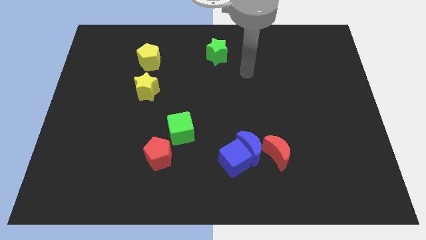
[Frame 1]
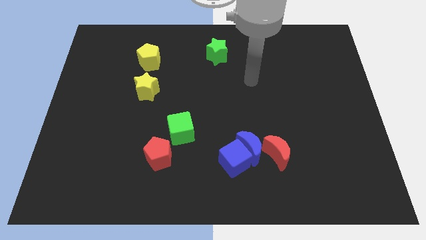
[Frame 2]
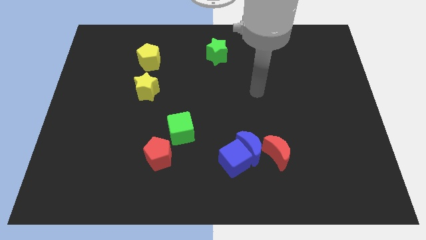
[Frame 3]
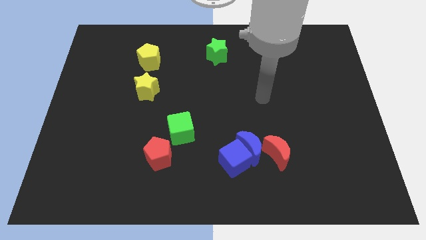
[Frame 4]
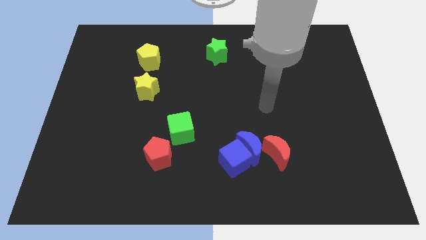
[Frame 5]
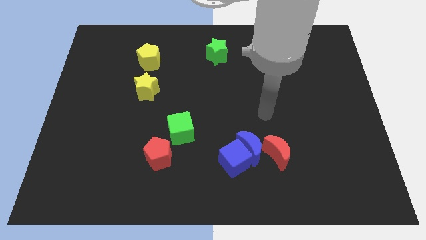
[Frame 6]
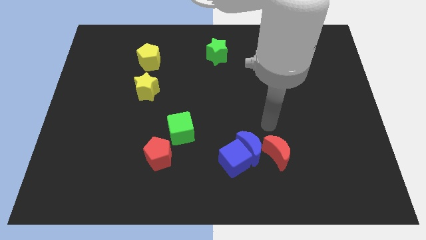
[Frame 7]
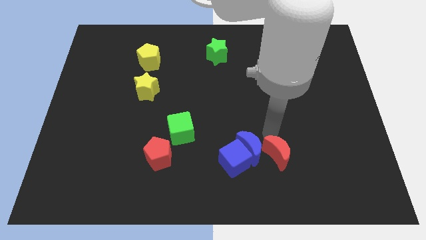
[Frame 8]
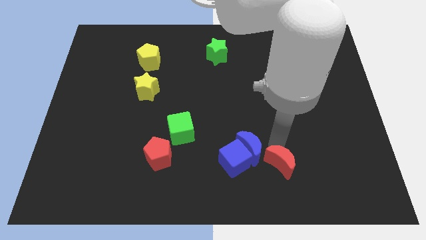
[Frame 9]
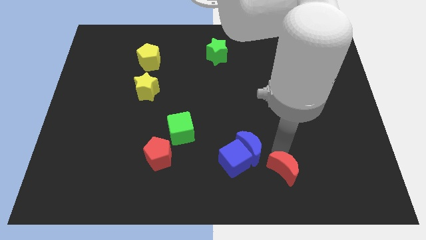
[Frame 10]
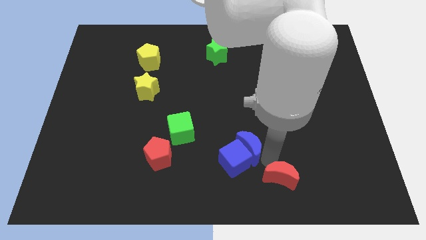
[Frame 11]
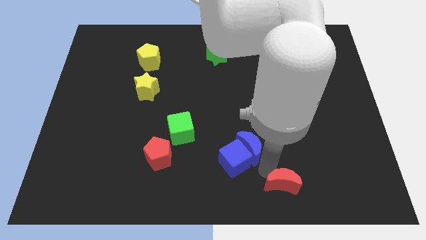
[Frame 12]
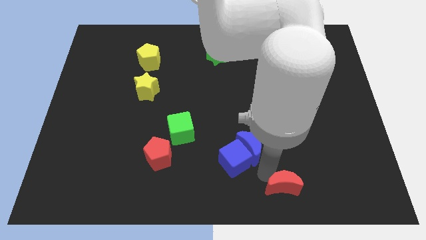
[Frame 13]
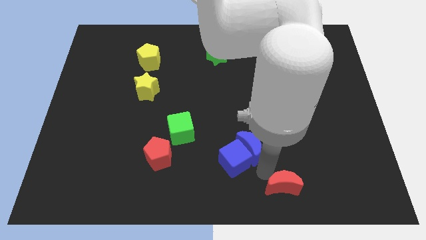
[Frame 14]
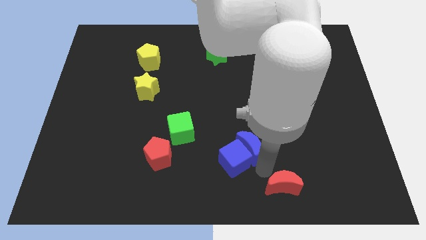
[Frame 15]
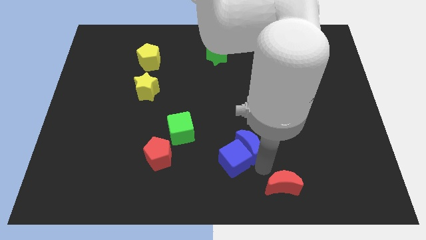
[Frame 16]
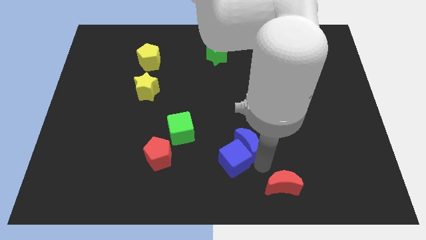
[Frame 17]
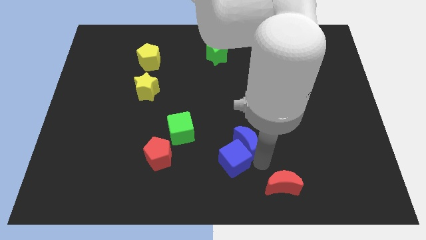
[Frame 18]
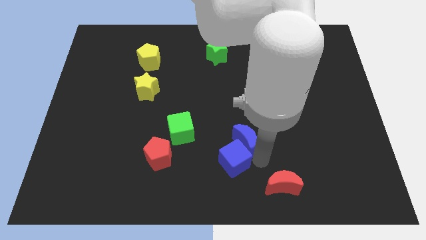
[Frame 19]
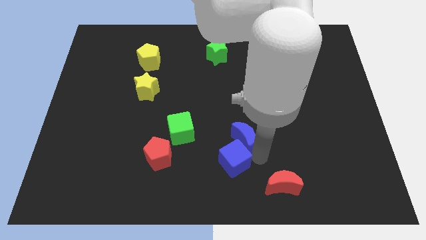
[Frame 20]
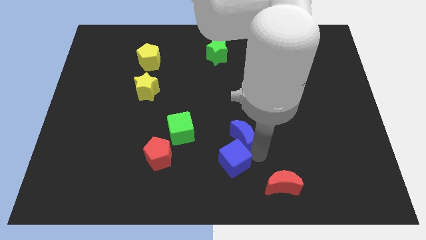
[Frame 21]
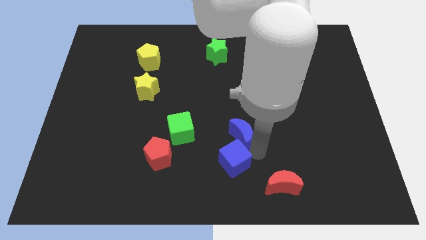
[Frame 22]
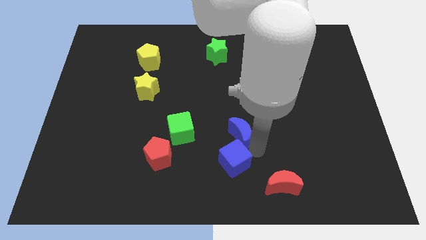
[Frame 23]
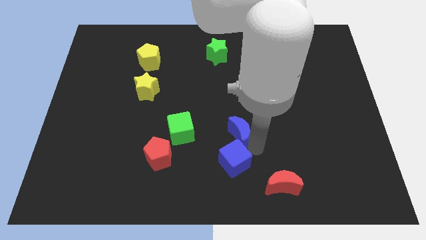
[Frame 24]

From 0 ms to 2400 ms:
separate the blue moon from the blue cube and red moon

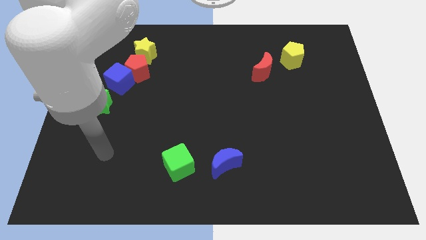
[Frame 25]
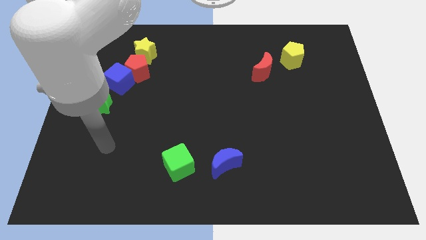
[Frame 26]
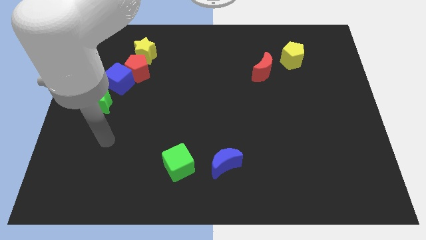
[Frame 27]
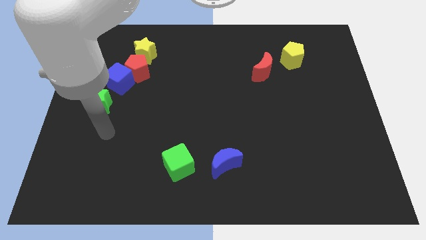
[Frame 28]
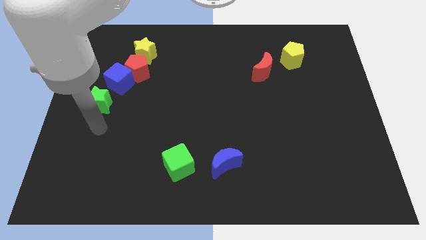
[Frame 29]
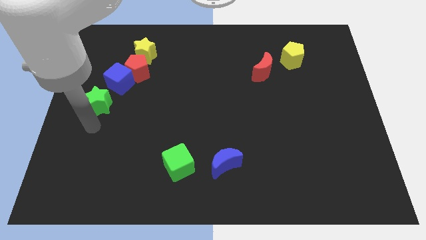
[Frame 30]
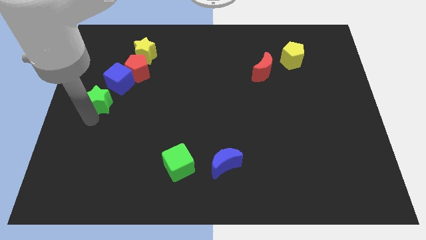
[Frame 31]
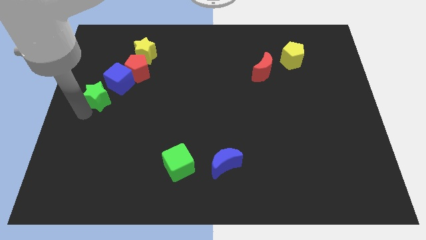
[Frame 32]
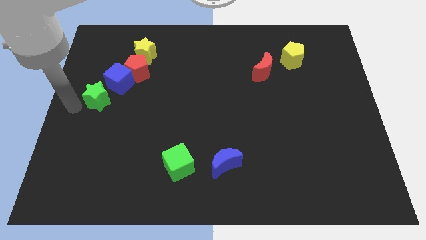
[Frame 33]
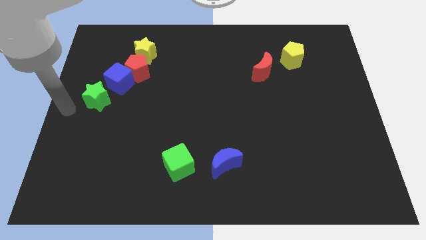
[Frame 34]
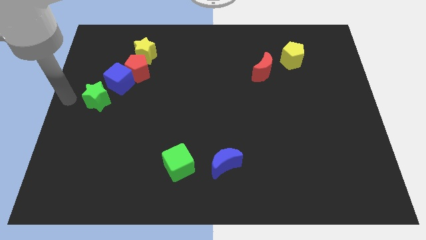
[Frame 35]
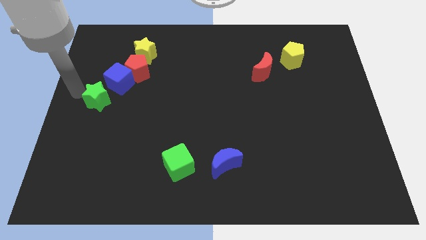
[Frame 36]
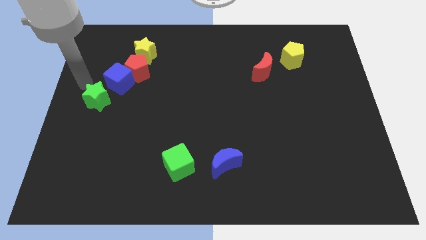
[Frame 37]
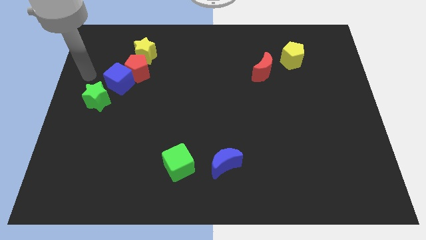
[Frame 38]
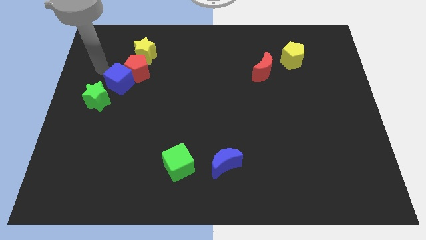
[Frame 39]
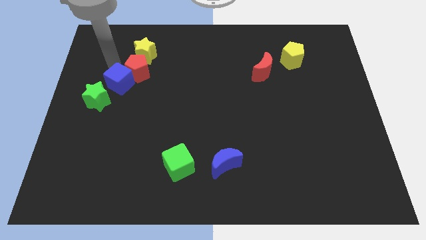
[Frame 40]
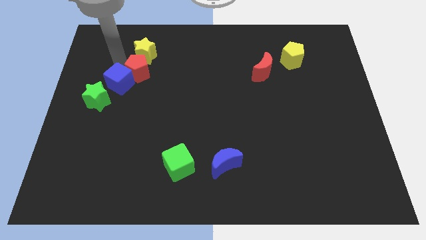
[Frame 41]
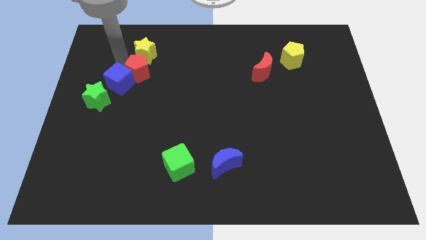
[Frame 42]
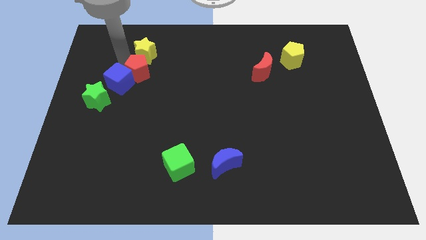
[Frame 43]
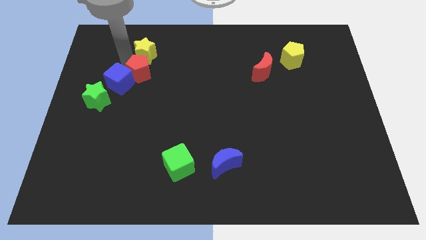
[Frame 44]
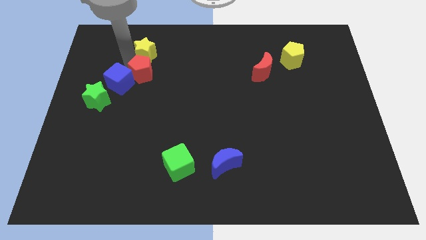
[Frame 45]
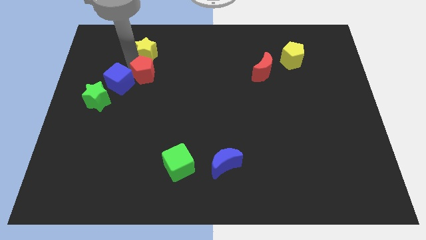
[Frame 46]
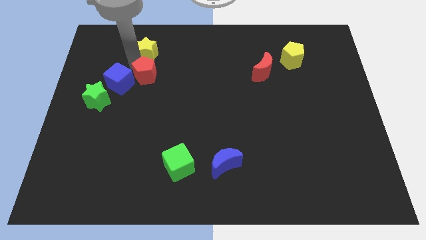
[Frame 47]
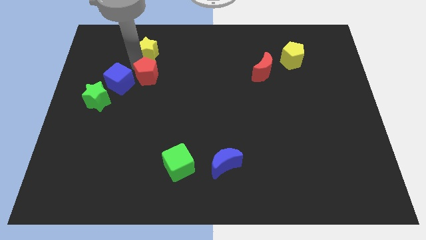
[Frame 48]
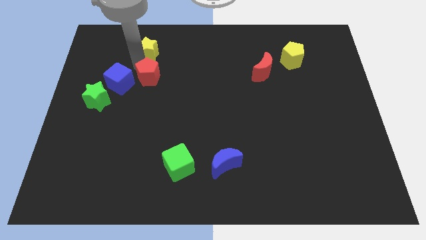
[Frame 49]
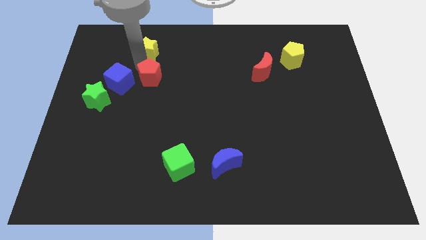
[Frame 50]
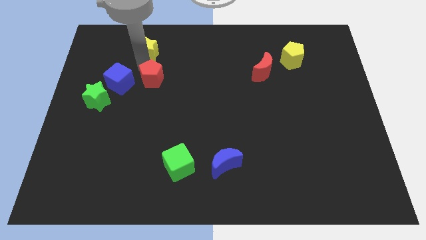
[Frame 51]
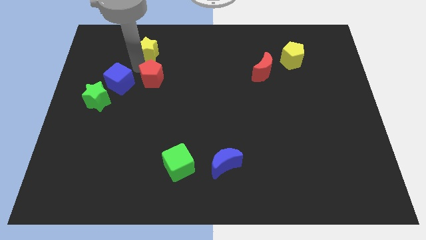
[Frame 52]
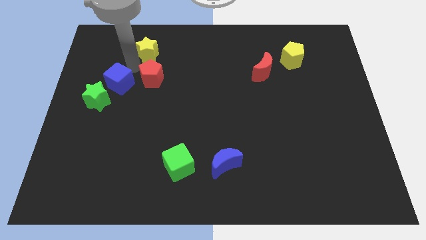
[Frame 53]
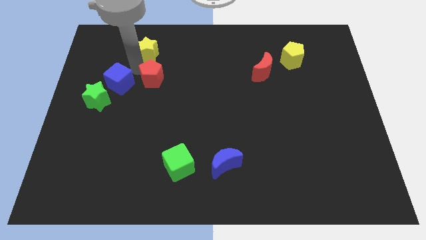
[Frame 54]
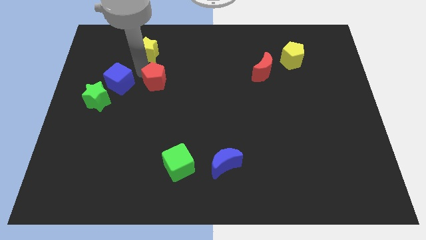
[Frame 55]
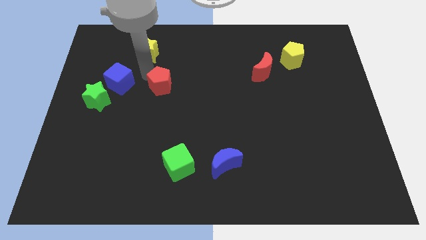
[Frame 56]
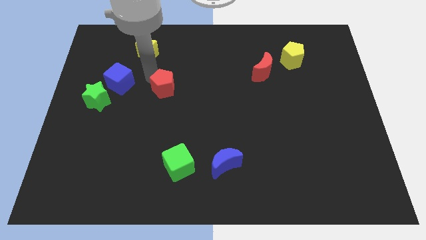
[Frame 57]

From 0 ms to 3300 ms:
separate the red pentagon from the blue cube and yellow star

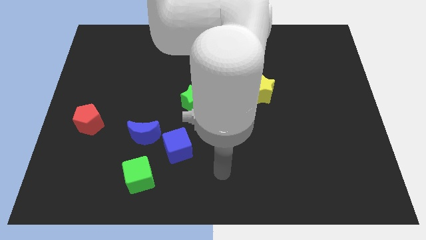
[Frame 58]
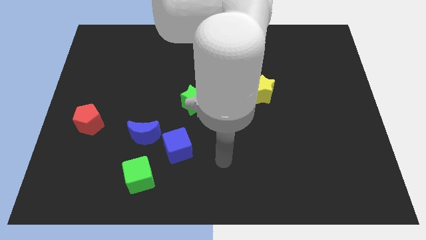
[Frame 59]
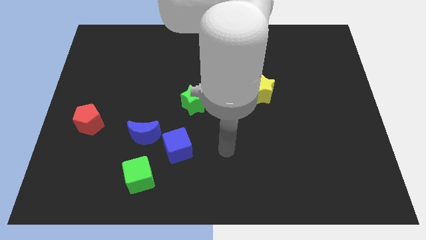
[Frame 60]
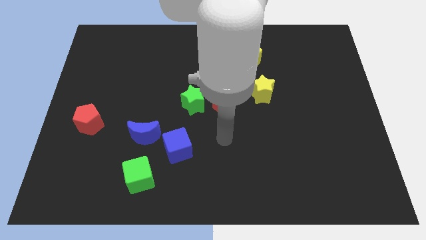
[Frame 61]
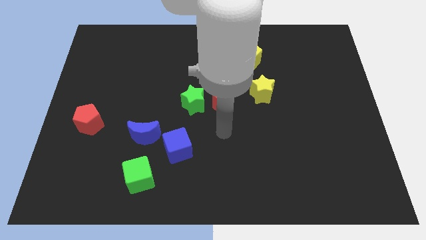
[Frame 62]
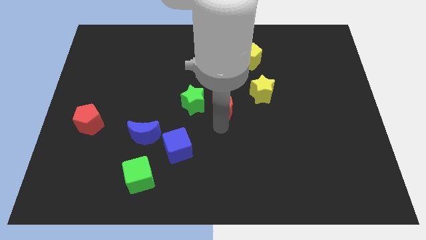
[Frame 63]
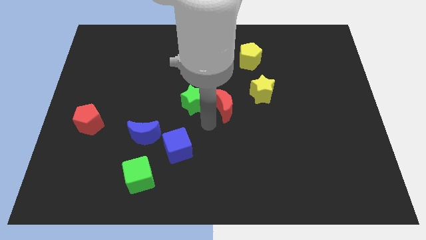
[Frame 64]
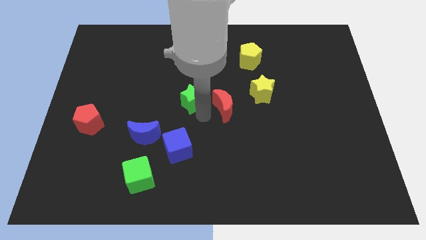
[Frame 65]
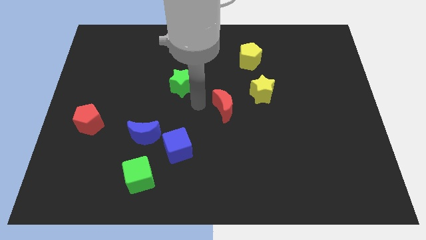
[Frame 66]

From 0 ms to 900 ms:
separate the red moon from the green star

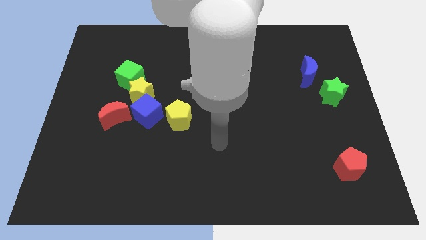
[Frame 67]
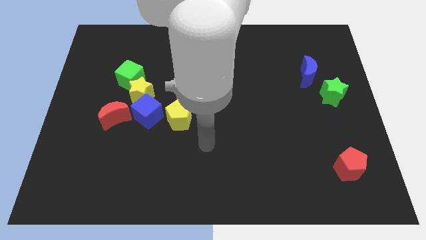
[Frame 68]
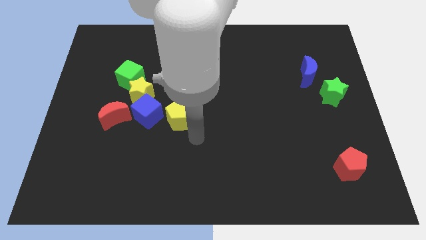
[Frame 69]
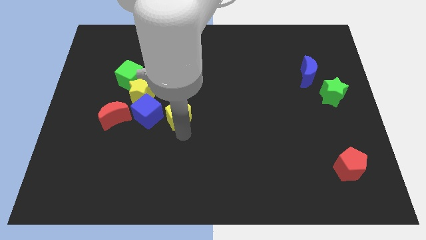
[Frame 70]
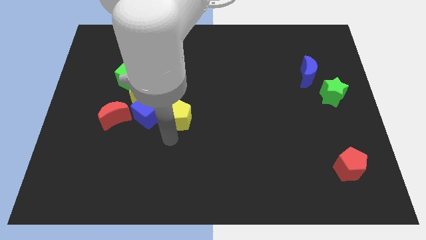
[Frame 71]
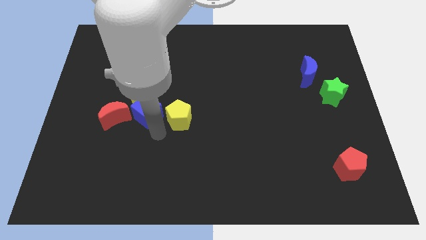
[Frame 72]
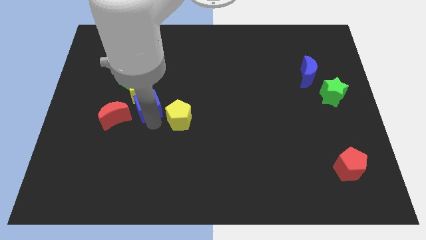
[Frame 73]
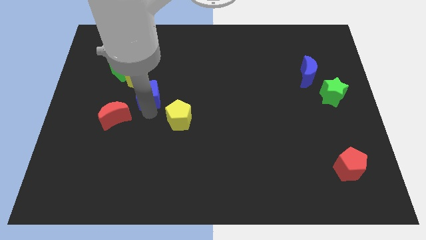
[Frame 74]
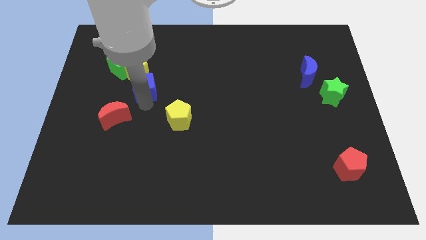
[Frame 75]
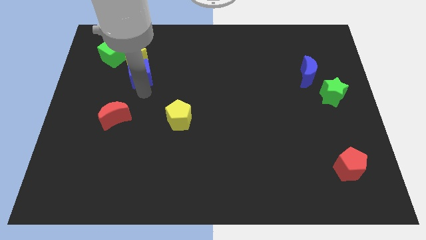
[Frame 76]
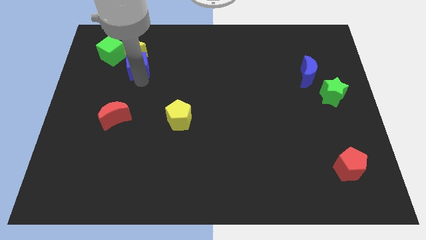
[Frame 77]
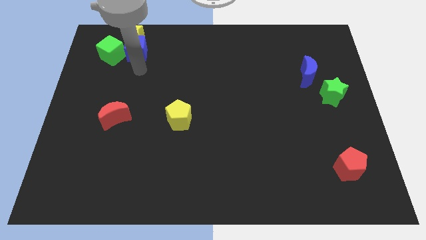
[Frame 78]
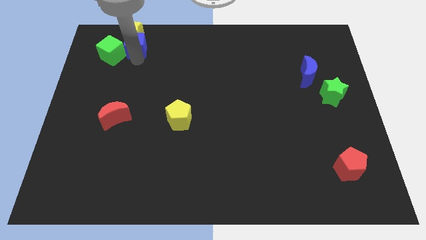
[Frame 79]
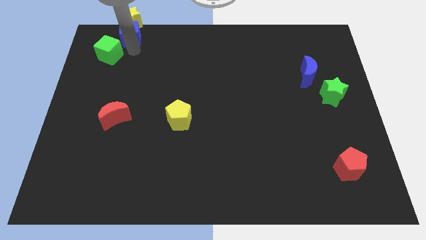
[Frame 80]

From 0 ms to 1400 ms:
move the green cube away from the yellow star

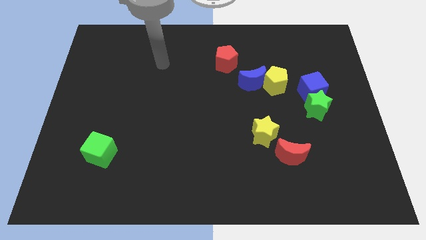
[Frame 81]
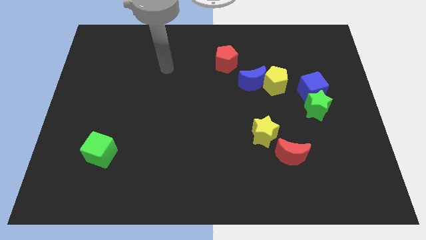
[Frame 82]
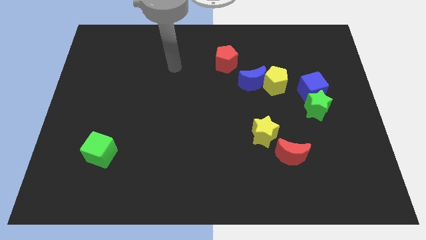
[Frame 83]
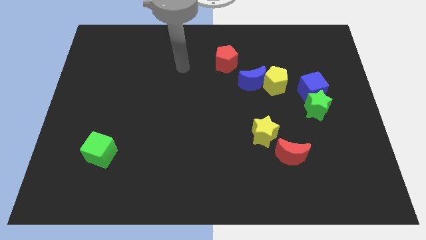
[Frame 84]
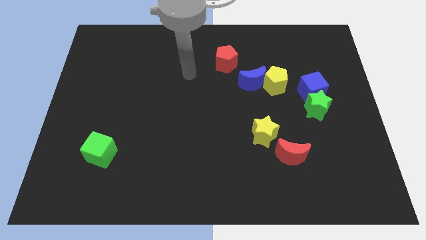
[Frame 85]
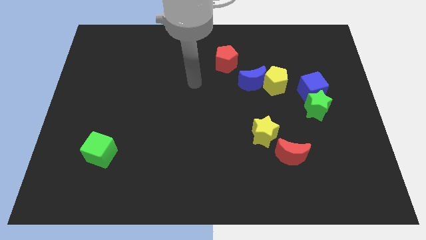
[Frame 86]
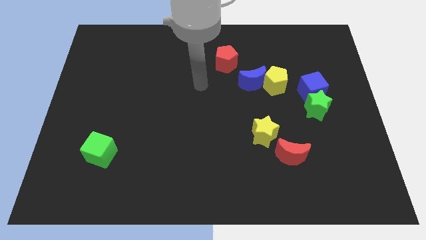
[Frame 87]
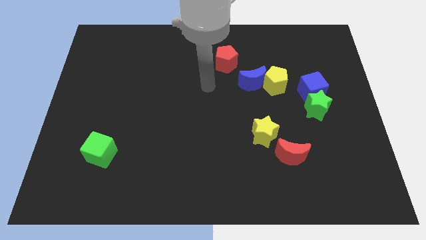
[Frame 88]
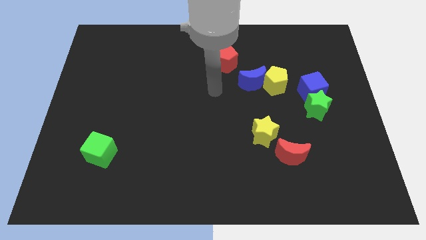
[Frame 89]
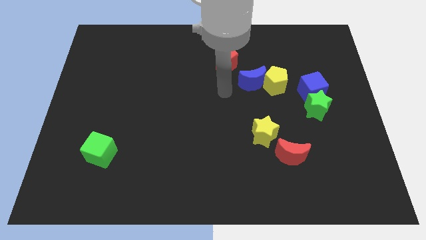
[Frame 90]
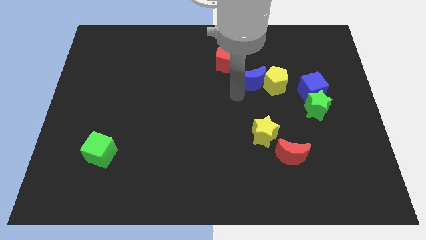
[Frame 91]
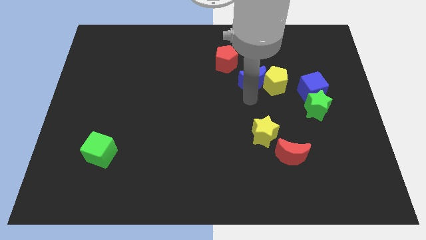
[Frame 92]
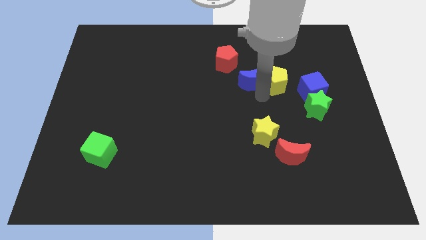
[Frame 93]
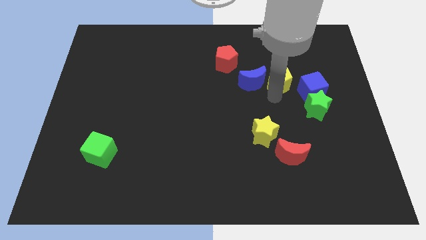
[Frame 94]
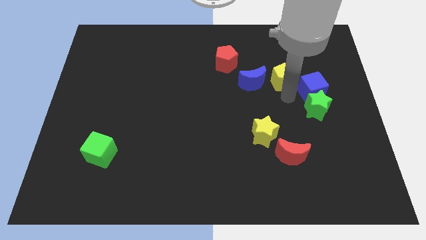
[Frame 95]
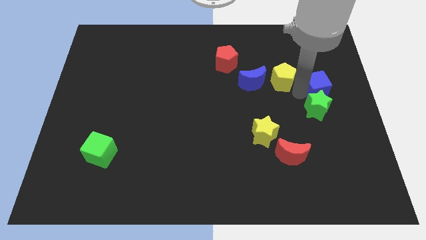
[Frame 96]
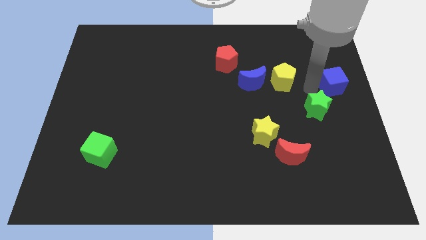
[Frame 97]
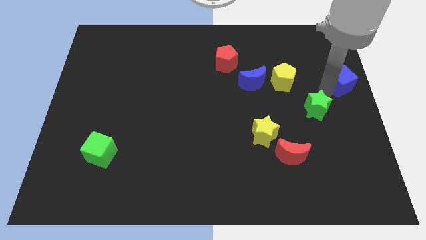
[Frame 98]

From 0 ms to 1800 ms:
separate the green star from the blue cube
